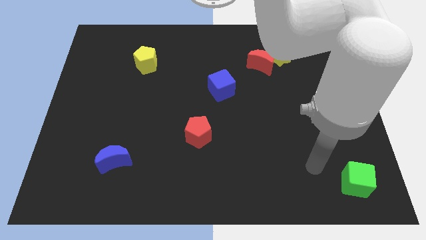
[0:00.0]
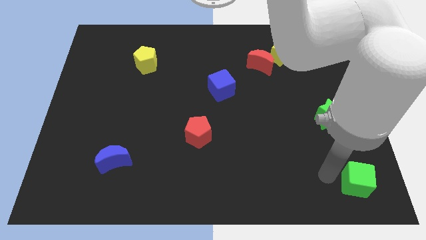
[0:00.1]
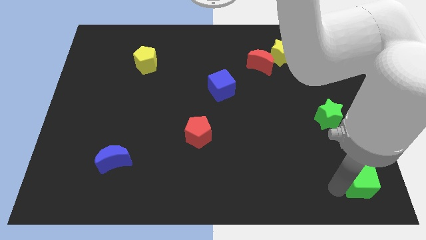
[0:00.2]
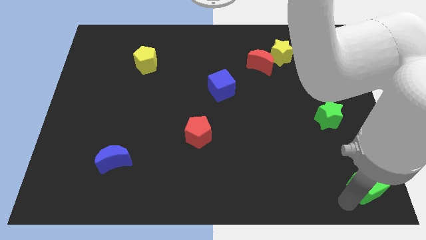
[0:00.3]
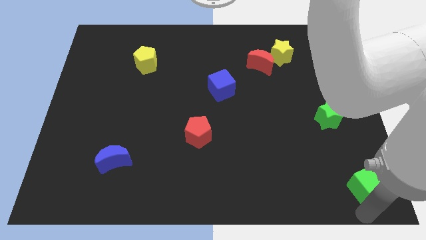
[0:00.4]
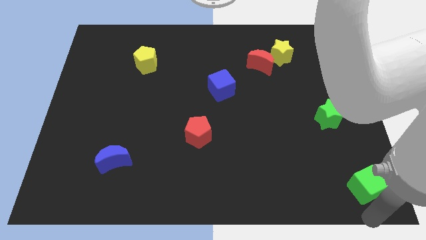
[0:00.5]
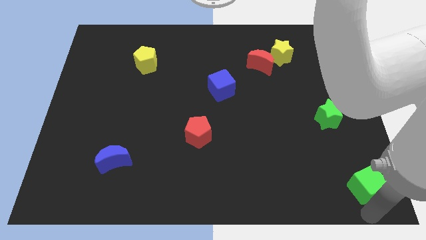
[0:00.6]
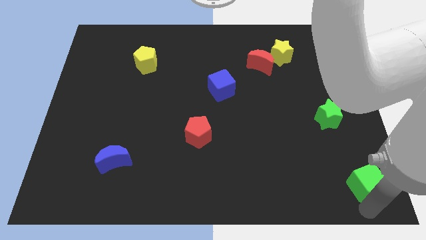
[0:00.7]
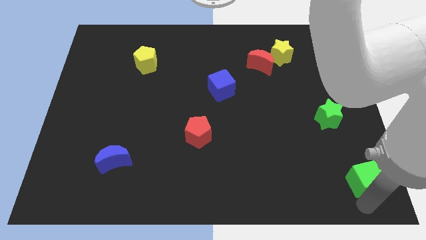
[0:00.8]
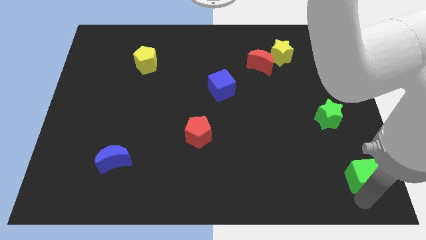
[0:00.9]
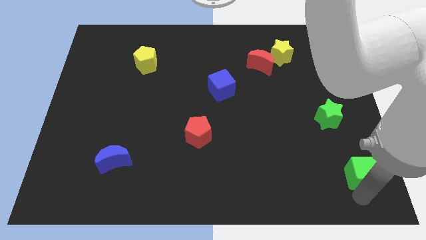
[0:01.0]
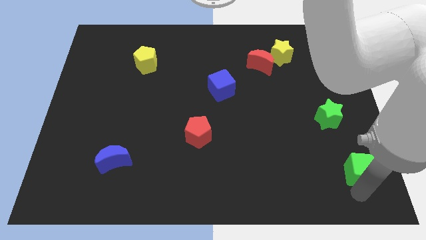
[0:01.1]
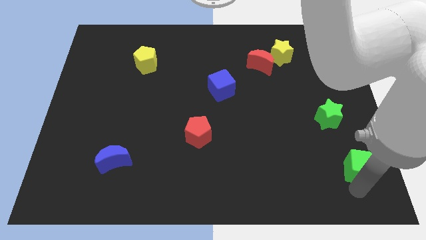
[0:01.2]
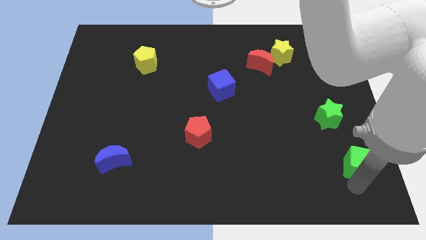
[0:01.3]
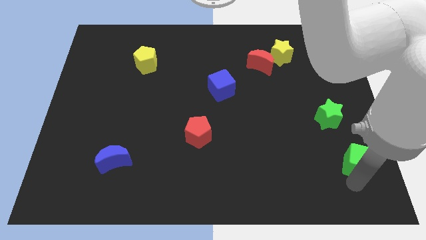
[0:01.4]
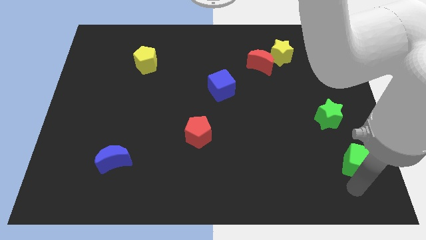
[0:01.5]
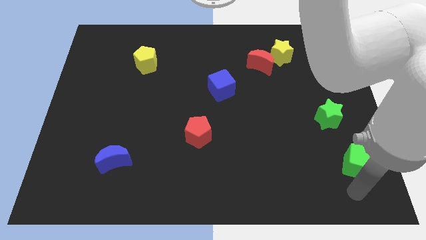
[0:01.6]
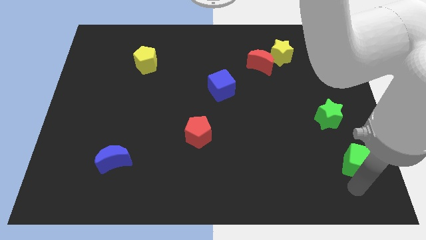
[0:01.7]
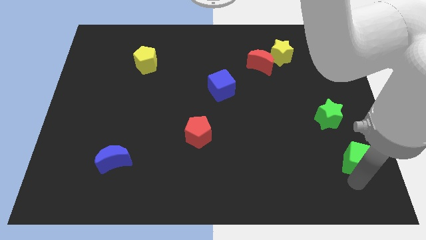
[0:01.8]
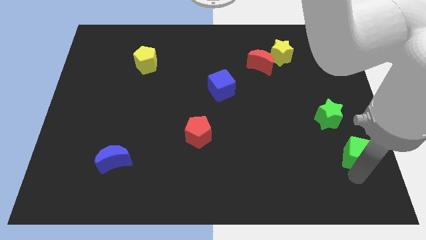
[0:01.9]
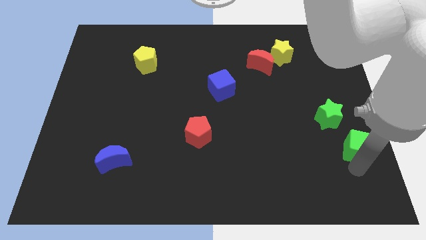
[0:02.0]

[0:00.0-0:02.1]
slide the green cube slightly upwards

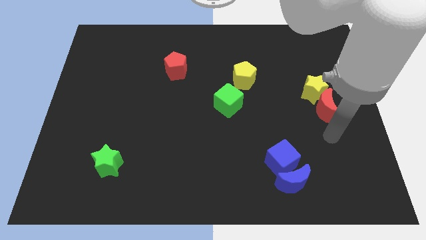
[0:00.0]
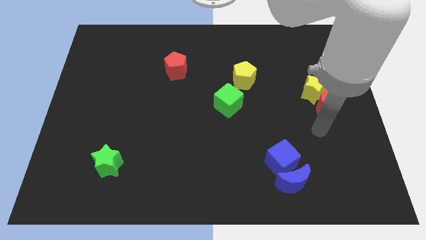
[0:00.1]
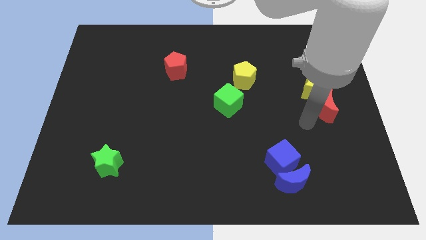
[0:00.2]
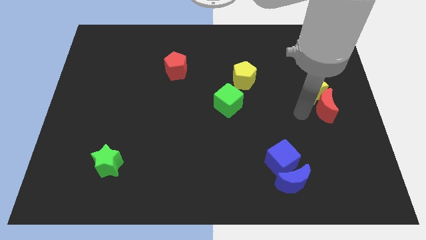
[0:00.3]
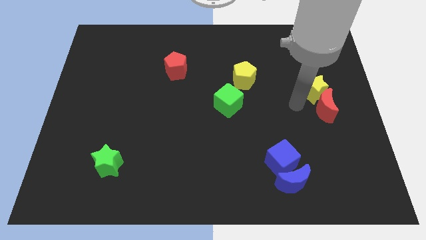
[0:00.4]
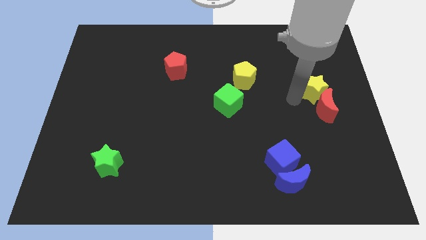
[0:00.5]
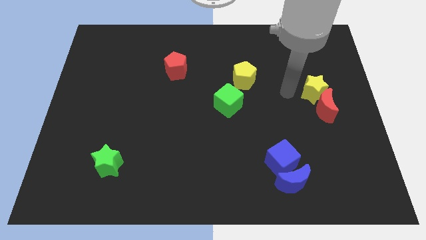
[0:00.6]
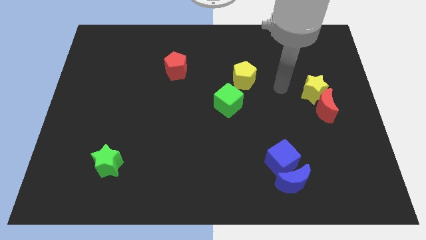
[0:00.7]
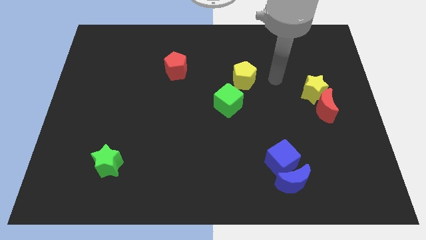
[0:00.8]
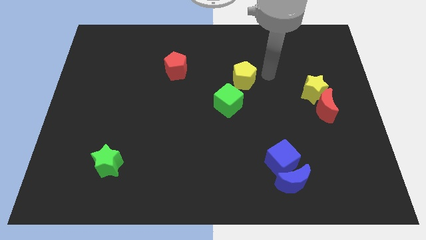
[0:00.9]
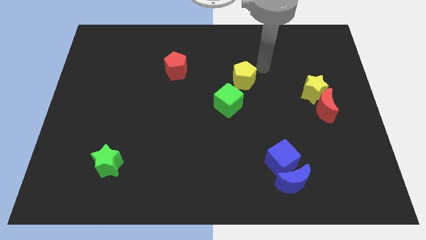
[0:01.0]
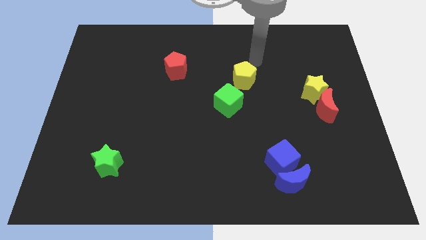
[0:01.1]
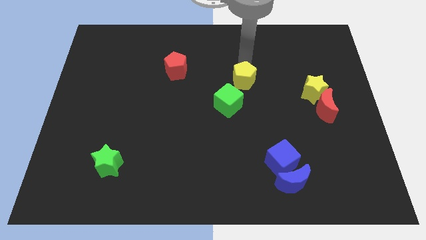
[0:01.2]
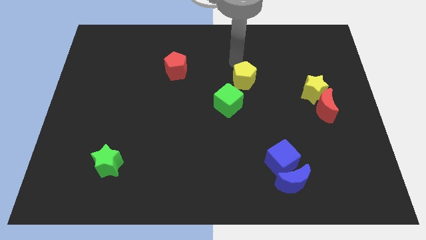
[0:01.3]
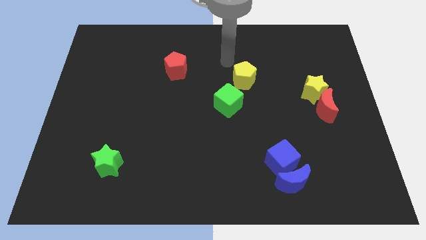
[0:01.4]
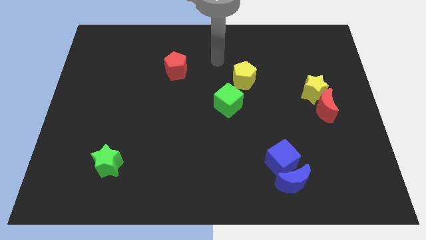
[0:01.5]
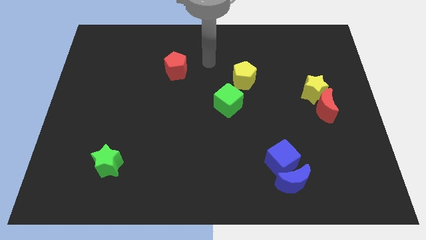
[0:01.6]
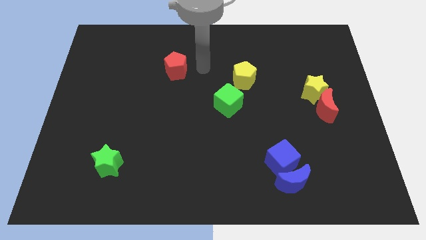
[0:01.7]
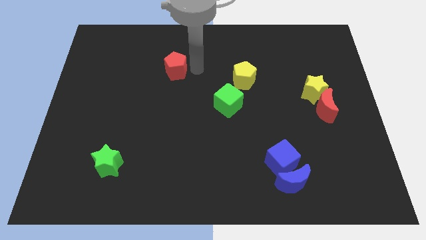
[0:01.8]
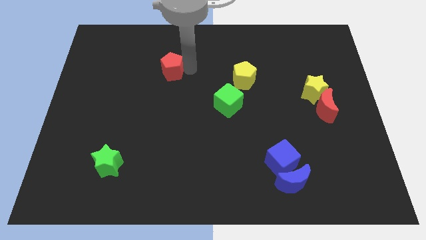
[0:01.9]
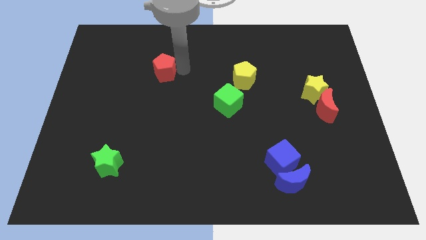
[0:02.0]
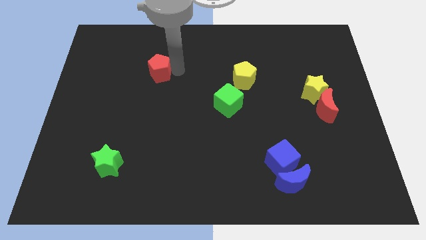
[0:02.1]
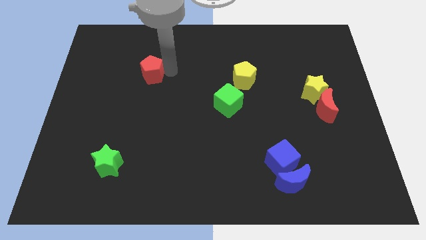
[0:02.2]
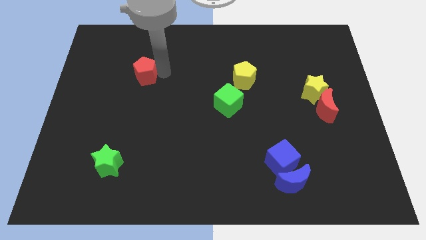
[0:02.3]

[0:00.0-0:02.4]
slide the red pentagon to the left a little bit

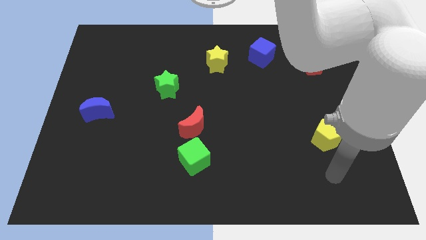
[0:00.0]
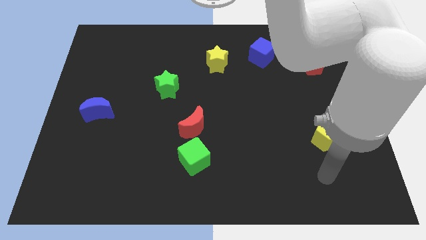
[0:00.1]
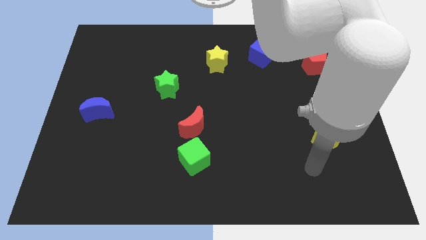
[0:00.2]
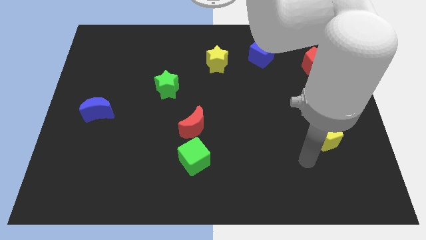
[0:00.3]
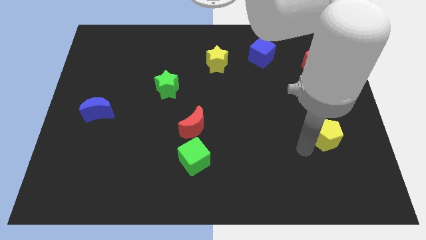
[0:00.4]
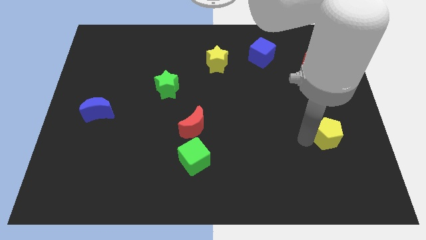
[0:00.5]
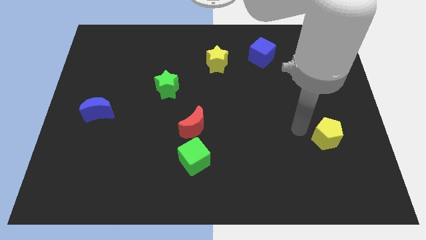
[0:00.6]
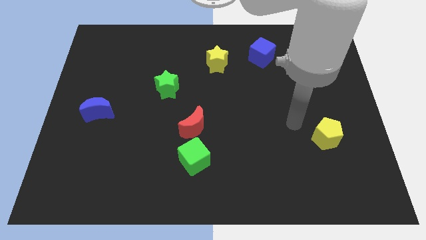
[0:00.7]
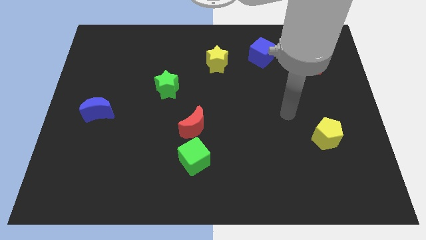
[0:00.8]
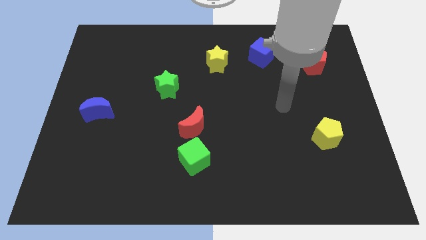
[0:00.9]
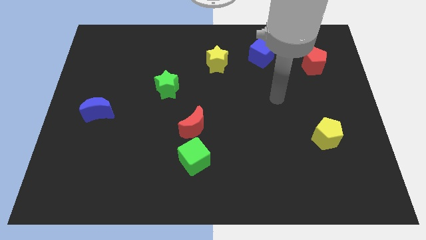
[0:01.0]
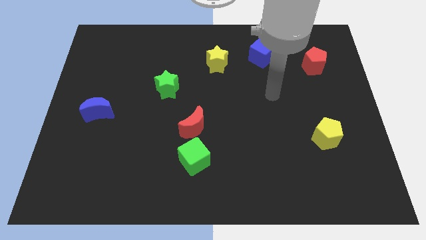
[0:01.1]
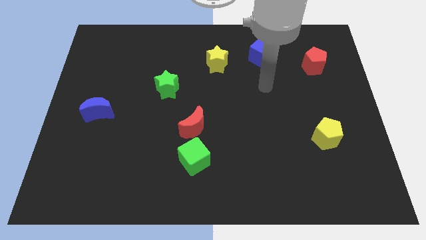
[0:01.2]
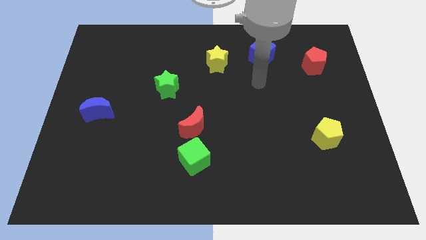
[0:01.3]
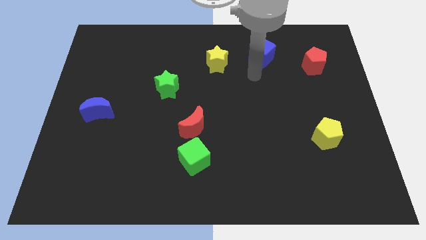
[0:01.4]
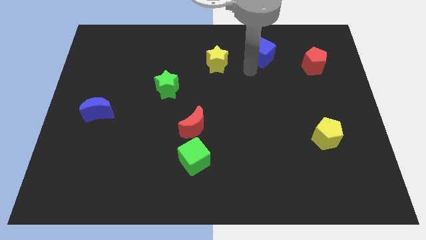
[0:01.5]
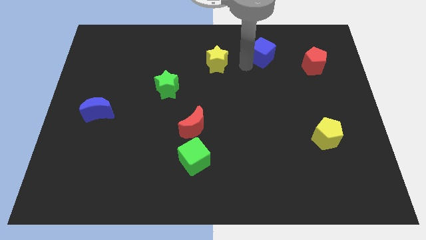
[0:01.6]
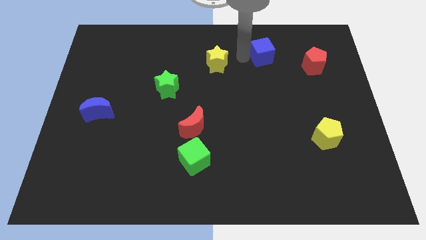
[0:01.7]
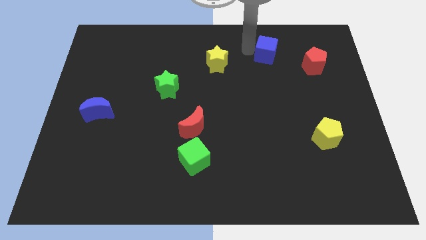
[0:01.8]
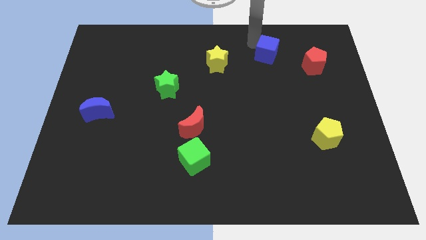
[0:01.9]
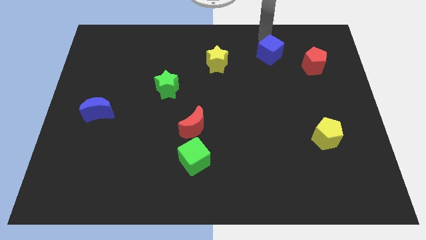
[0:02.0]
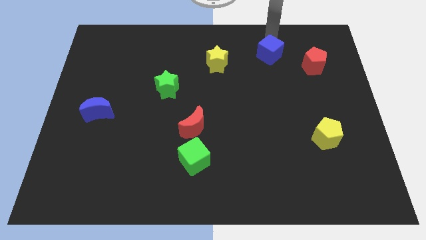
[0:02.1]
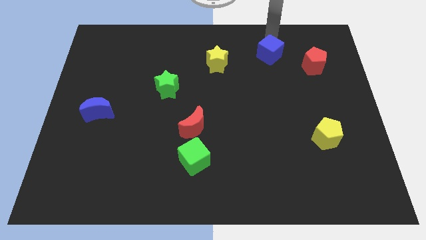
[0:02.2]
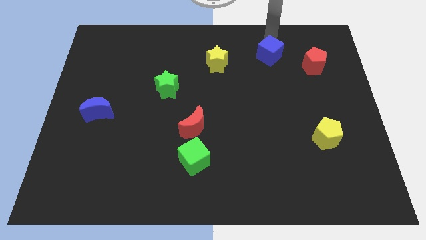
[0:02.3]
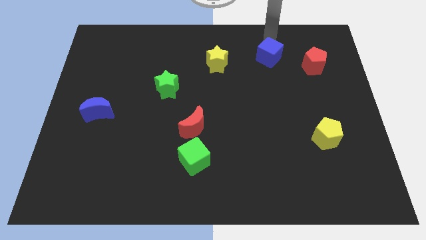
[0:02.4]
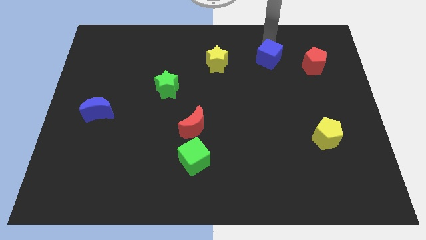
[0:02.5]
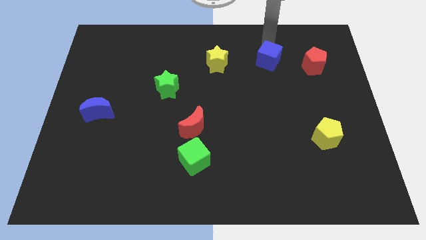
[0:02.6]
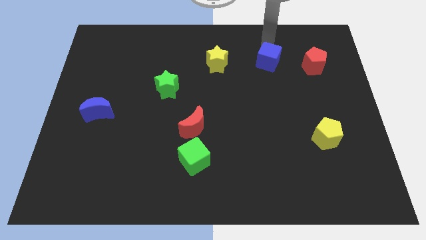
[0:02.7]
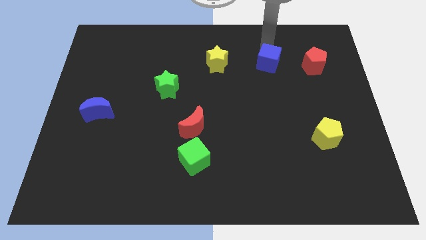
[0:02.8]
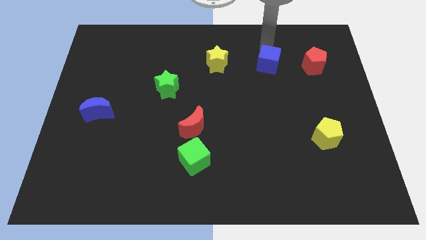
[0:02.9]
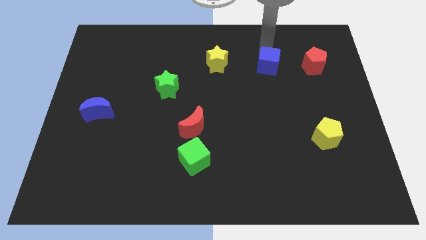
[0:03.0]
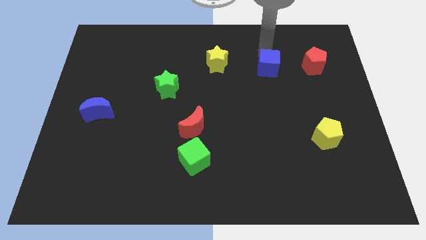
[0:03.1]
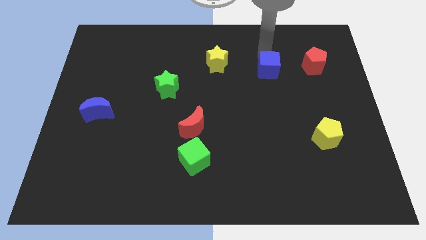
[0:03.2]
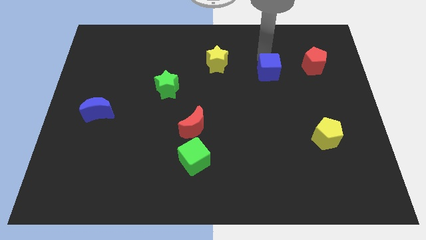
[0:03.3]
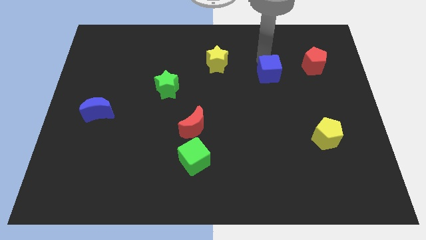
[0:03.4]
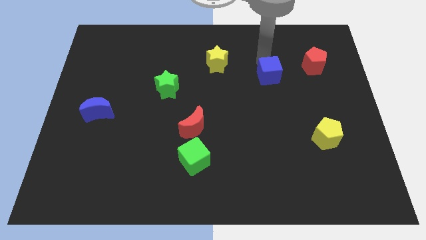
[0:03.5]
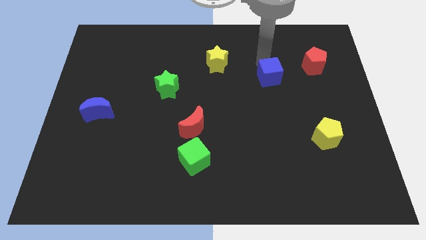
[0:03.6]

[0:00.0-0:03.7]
slightly move the blue cube down
